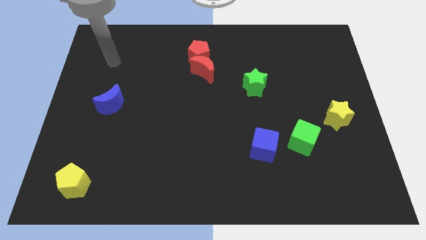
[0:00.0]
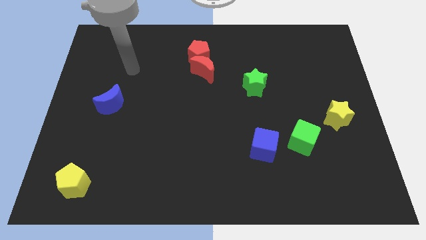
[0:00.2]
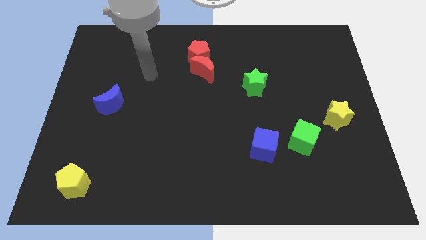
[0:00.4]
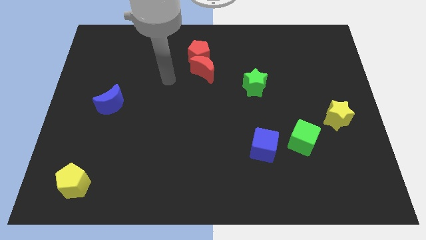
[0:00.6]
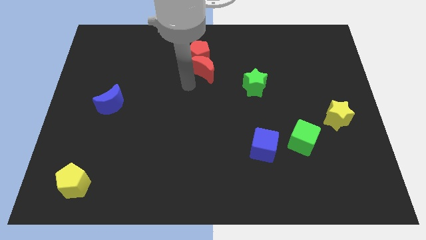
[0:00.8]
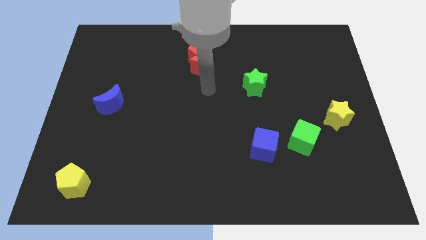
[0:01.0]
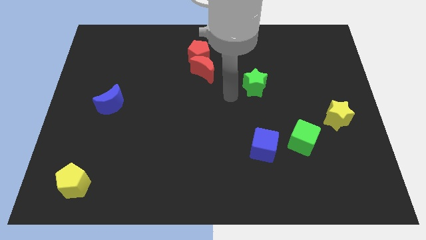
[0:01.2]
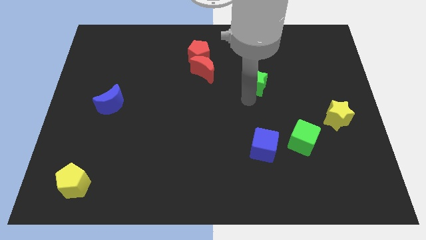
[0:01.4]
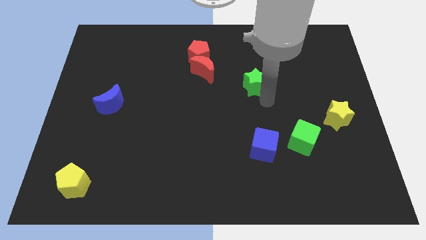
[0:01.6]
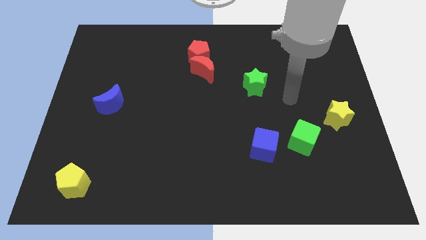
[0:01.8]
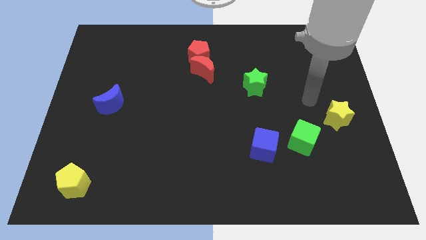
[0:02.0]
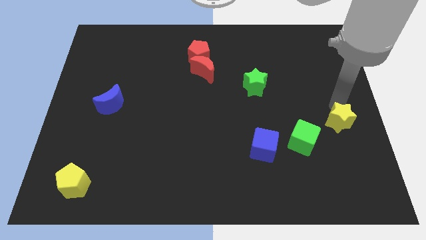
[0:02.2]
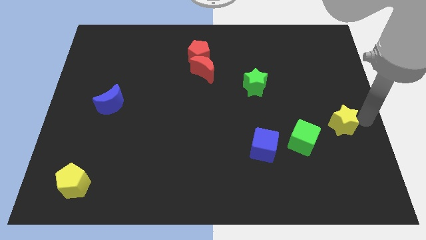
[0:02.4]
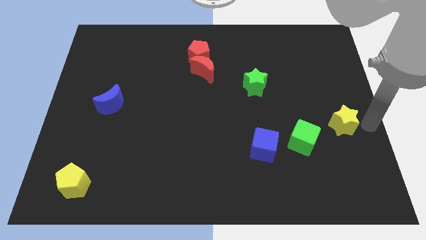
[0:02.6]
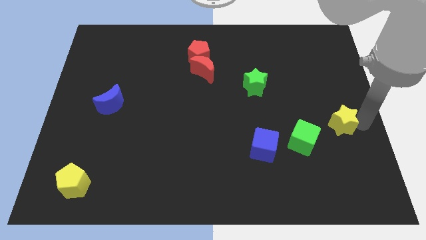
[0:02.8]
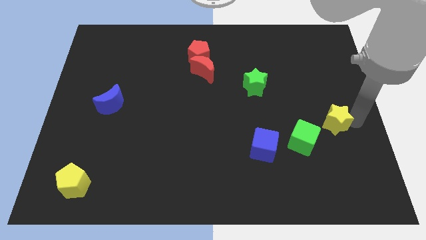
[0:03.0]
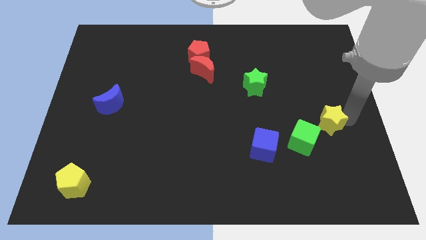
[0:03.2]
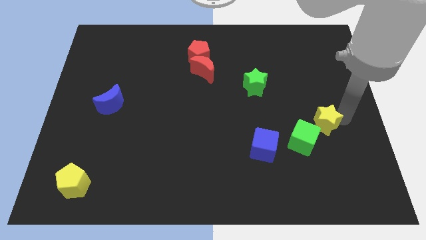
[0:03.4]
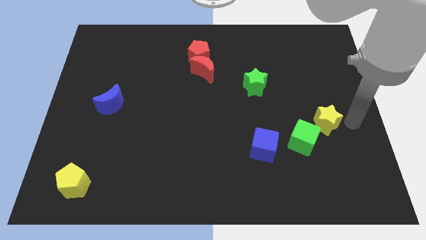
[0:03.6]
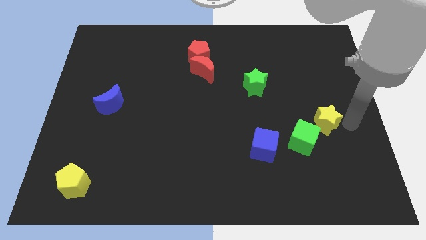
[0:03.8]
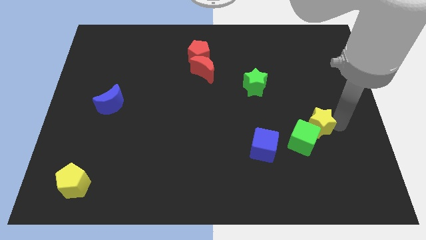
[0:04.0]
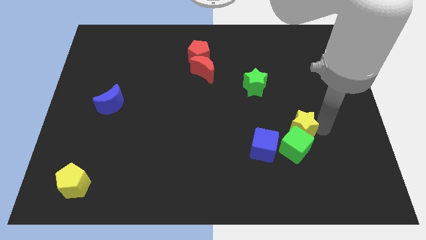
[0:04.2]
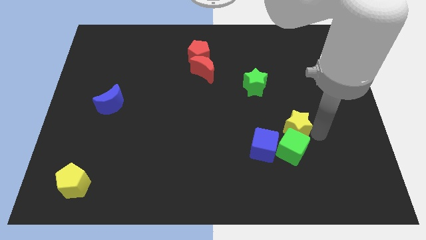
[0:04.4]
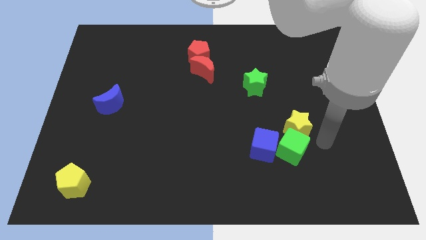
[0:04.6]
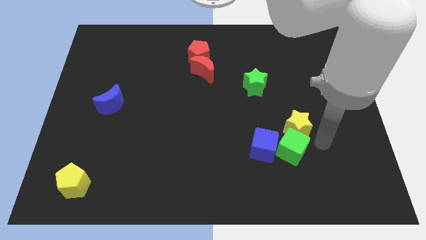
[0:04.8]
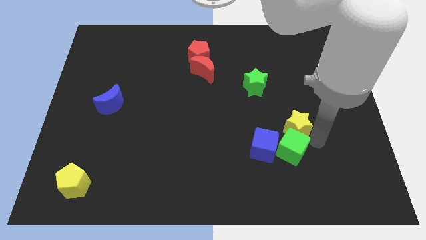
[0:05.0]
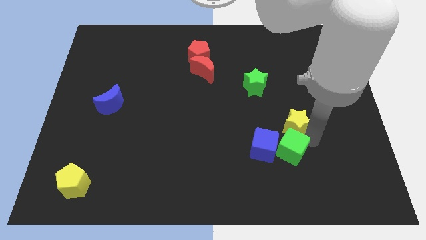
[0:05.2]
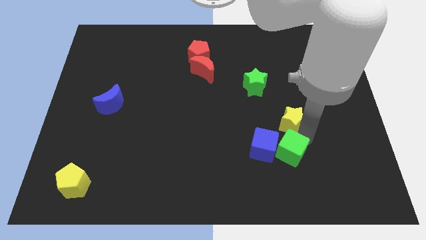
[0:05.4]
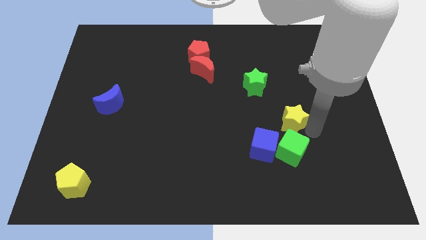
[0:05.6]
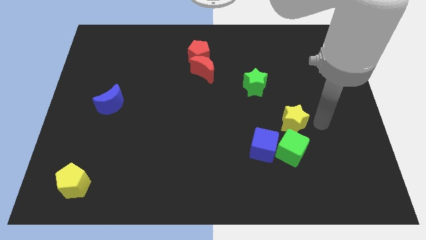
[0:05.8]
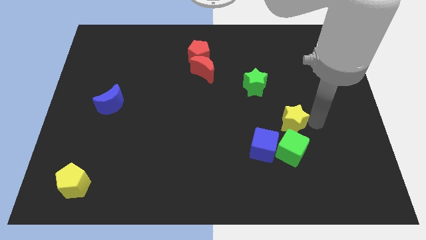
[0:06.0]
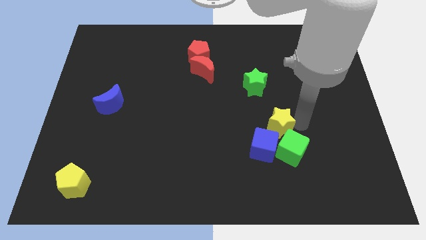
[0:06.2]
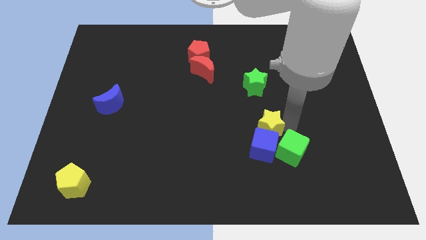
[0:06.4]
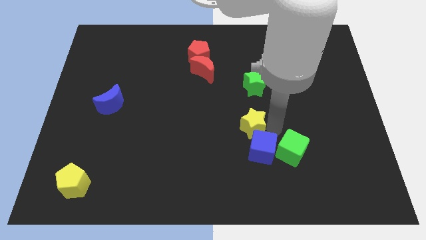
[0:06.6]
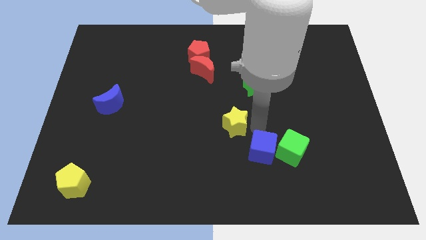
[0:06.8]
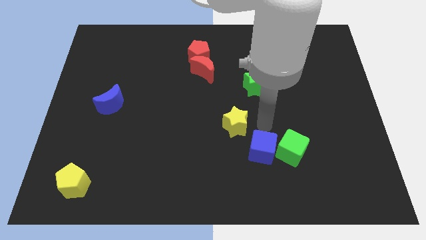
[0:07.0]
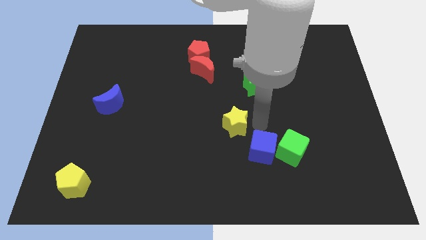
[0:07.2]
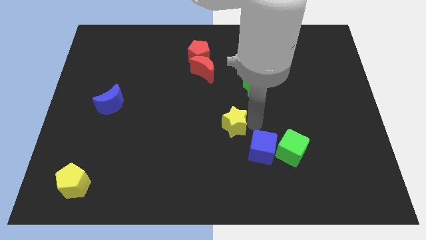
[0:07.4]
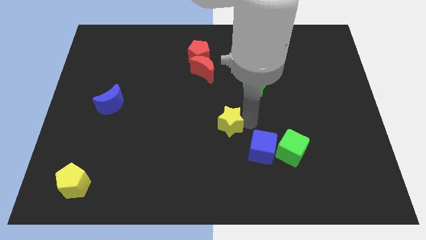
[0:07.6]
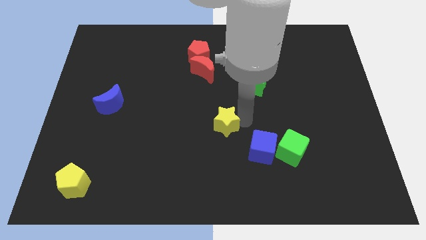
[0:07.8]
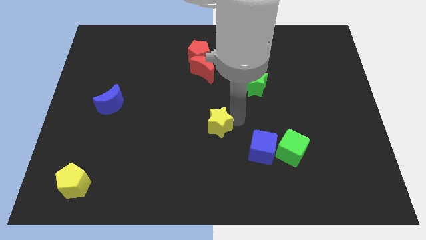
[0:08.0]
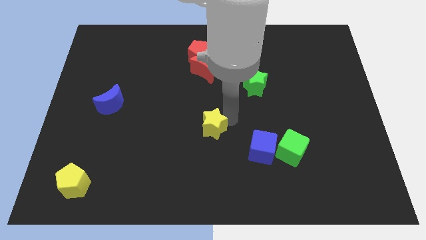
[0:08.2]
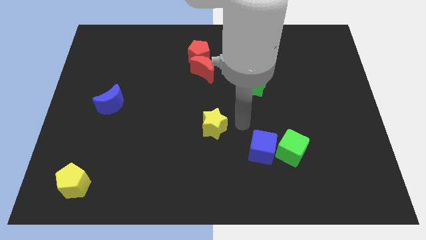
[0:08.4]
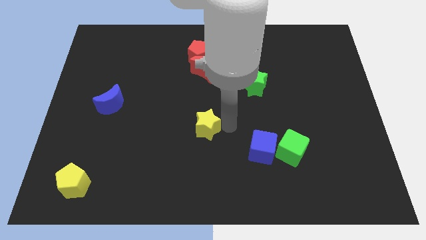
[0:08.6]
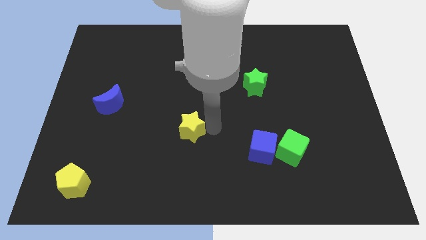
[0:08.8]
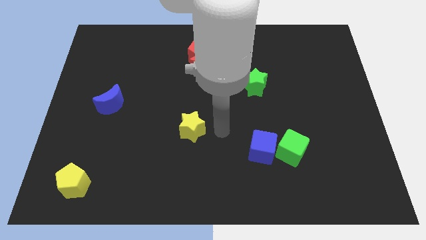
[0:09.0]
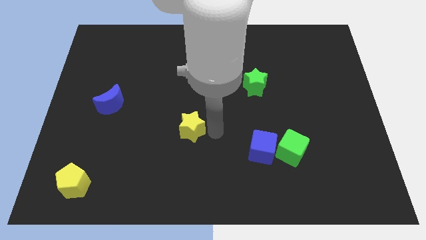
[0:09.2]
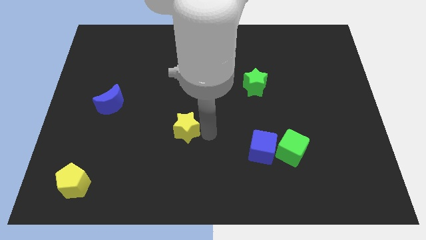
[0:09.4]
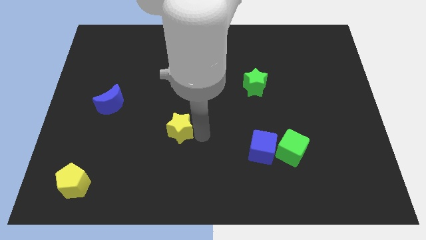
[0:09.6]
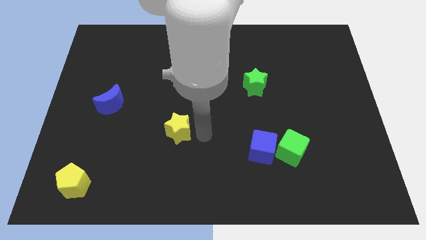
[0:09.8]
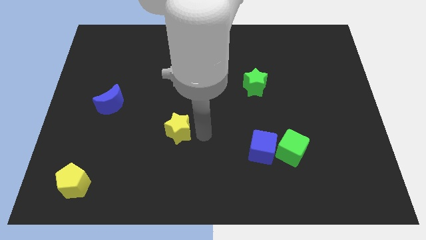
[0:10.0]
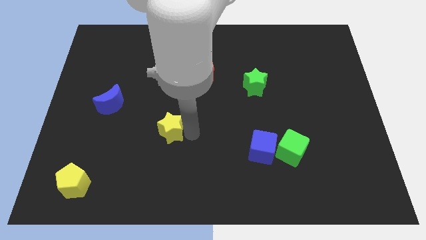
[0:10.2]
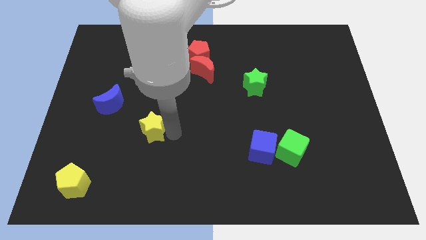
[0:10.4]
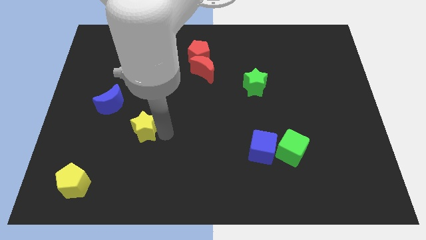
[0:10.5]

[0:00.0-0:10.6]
slide the yellow star diagonally down and to the right of the blue moon

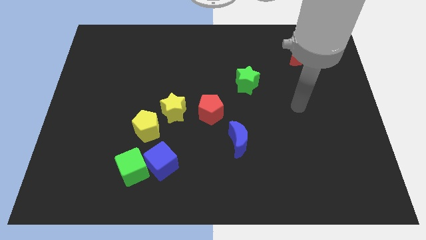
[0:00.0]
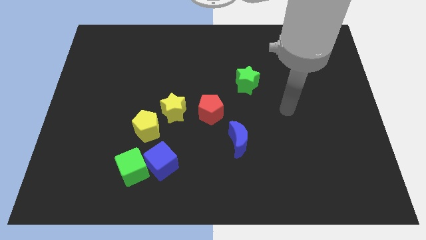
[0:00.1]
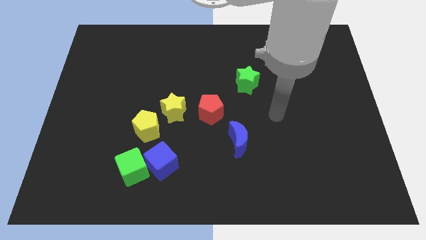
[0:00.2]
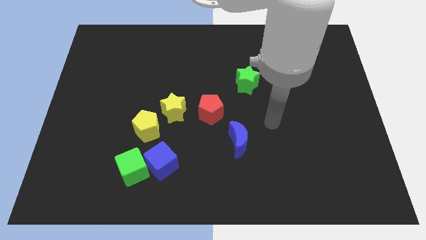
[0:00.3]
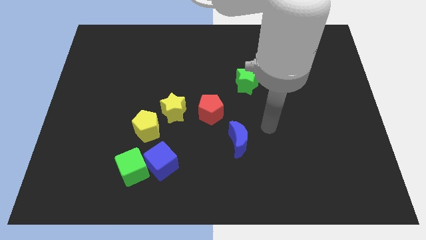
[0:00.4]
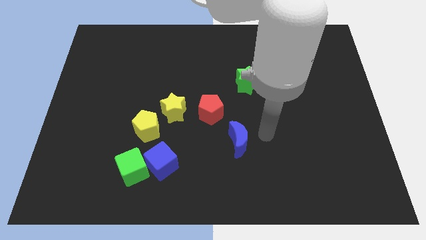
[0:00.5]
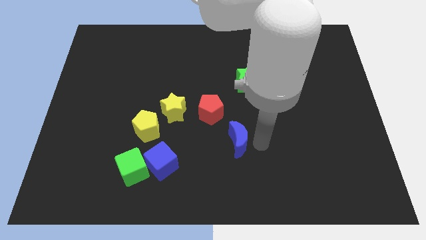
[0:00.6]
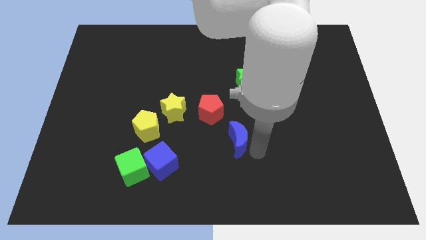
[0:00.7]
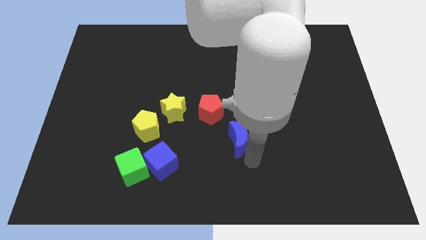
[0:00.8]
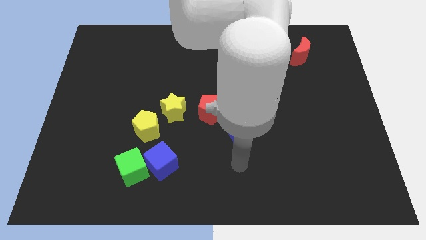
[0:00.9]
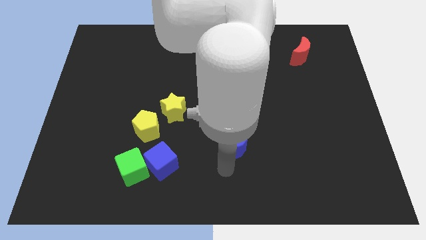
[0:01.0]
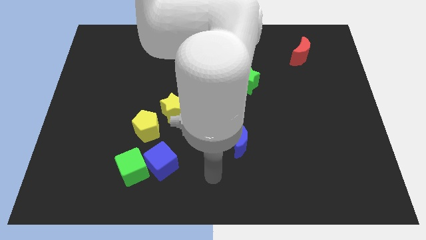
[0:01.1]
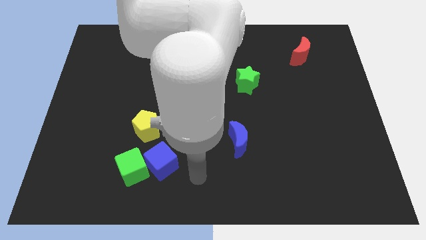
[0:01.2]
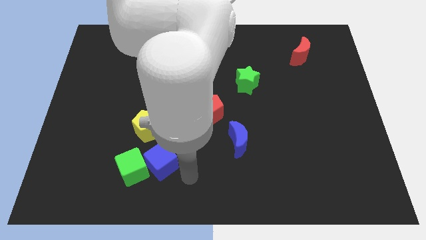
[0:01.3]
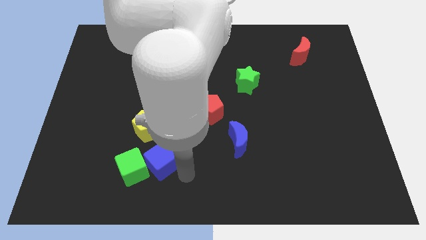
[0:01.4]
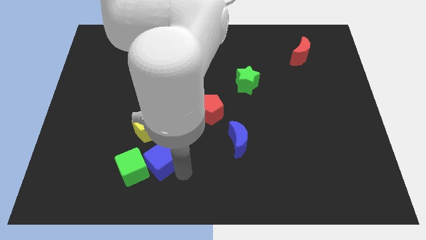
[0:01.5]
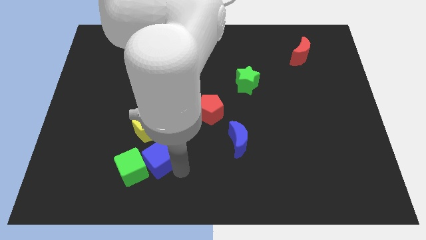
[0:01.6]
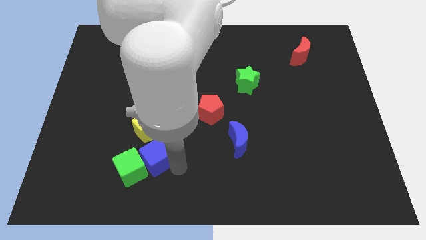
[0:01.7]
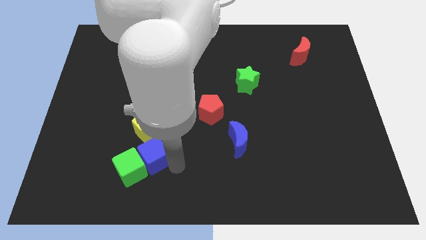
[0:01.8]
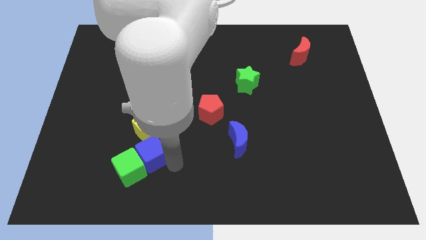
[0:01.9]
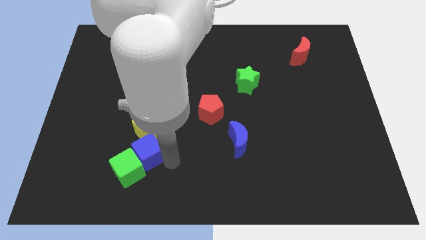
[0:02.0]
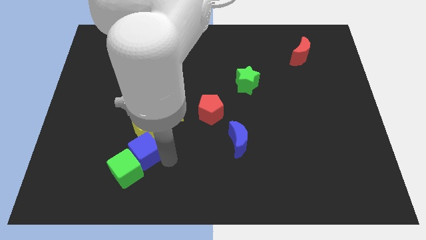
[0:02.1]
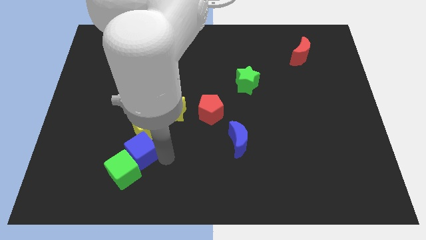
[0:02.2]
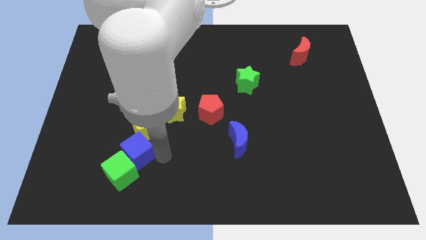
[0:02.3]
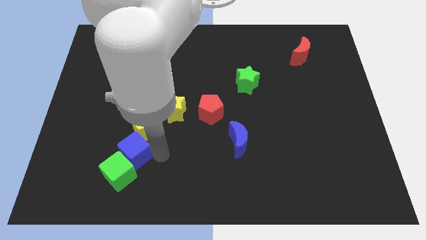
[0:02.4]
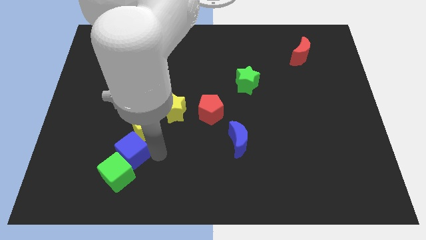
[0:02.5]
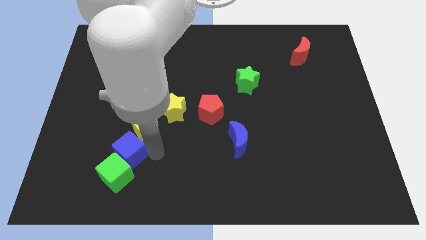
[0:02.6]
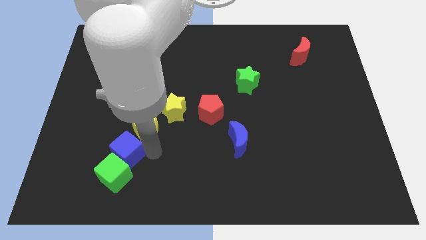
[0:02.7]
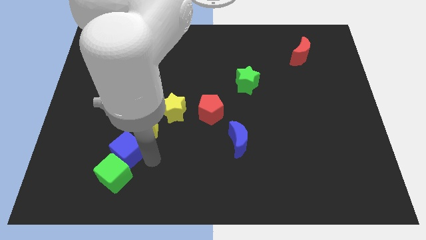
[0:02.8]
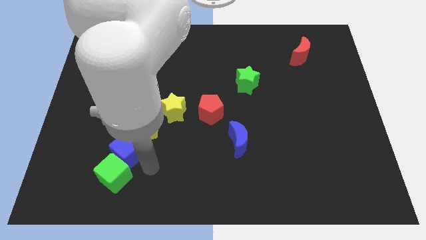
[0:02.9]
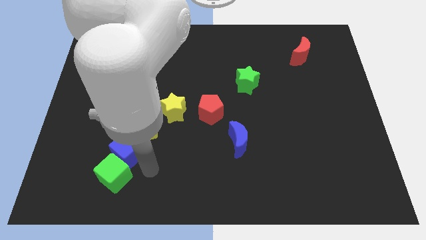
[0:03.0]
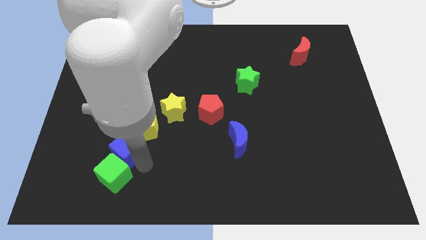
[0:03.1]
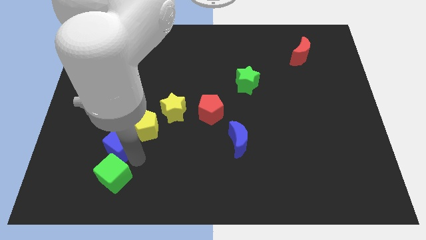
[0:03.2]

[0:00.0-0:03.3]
slide the blue cube left of the yellow pentagon
